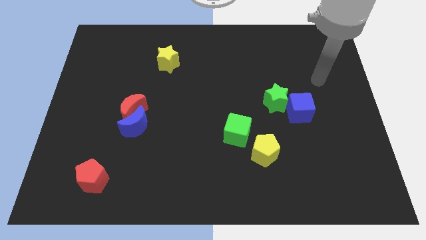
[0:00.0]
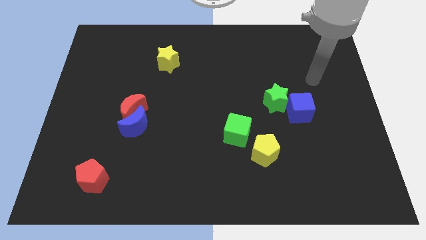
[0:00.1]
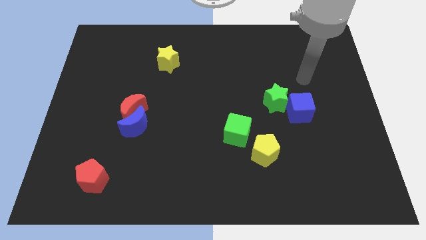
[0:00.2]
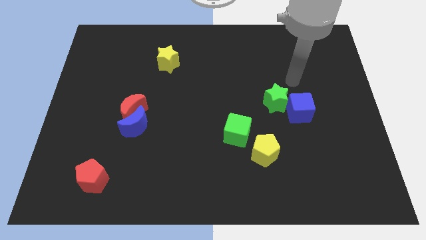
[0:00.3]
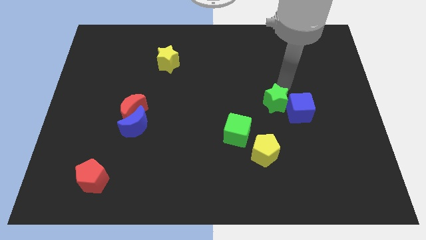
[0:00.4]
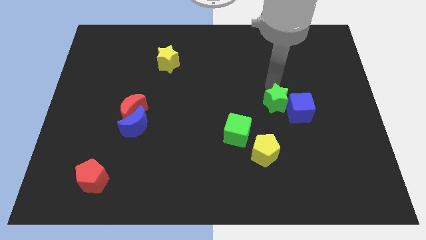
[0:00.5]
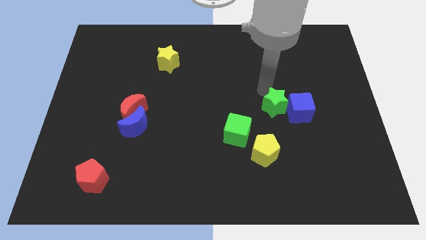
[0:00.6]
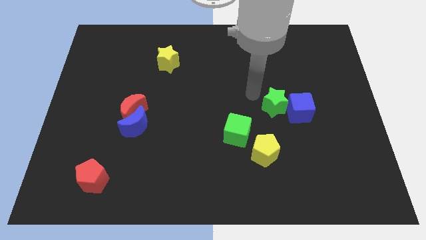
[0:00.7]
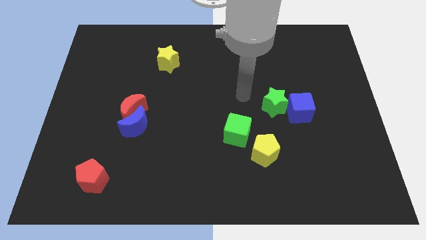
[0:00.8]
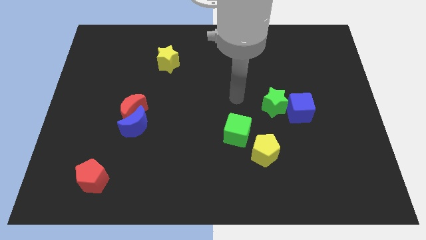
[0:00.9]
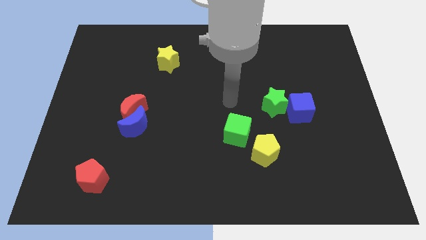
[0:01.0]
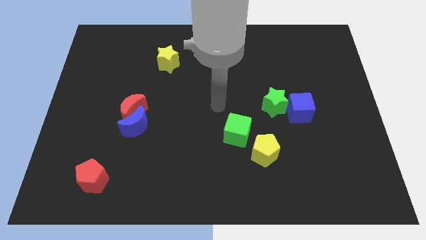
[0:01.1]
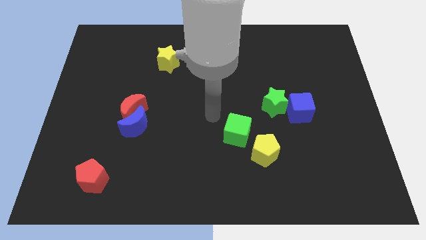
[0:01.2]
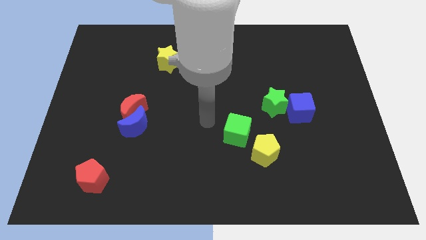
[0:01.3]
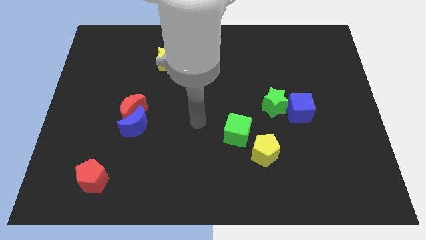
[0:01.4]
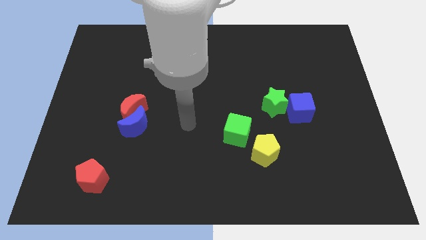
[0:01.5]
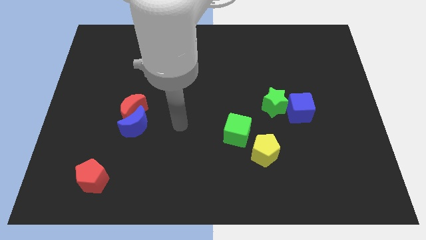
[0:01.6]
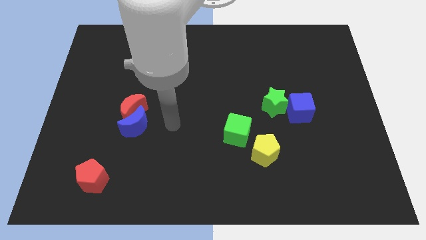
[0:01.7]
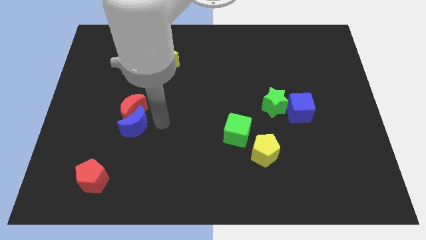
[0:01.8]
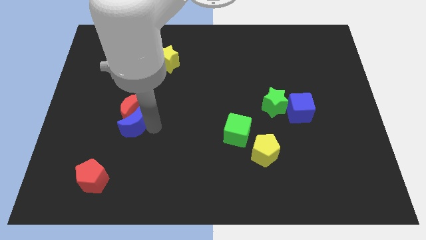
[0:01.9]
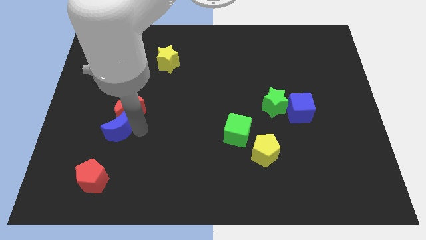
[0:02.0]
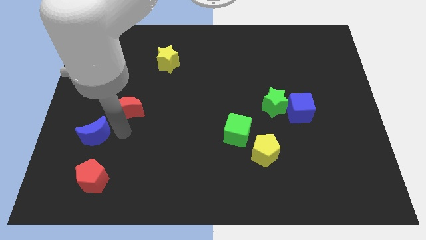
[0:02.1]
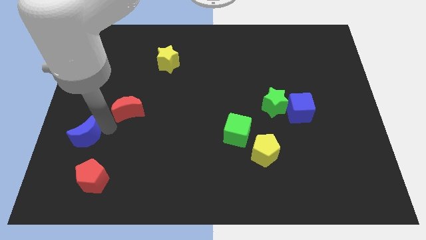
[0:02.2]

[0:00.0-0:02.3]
move the red moon away from the blue moon

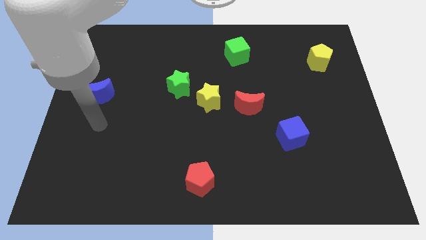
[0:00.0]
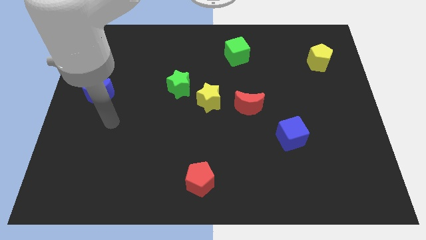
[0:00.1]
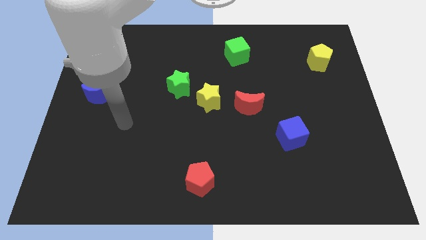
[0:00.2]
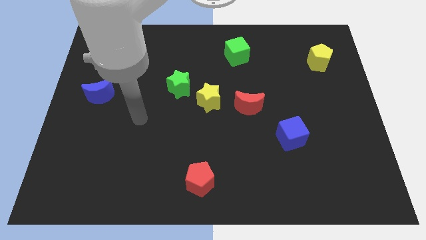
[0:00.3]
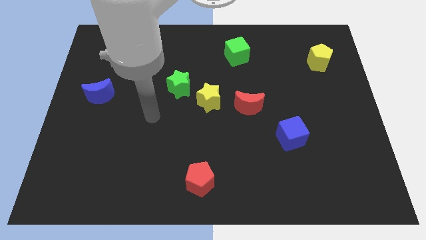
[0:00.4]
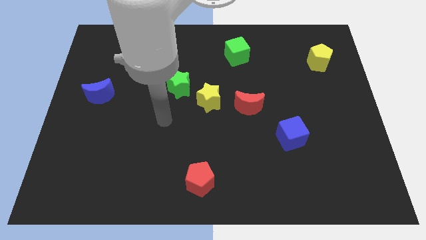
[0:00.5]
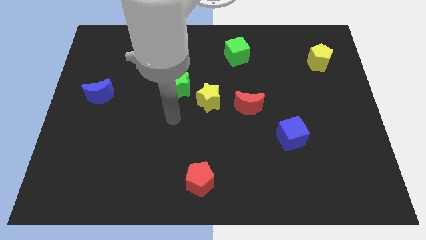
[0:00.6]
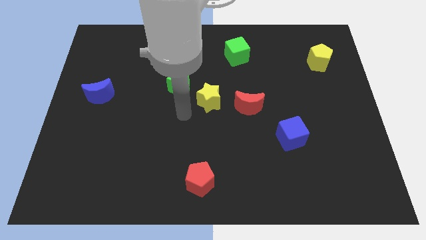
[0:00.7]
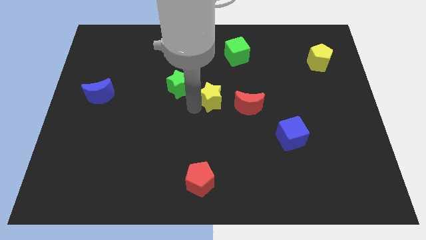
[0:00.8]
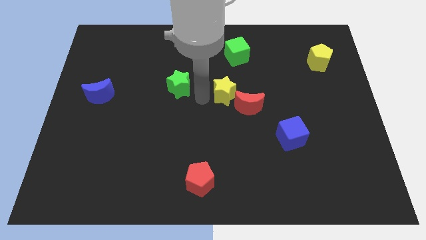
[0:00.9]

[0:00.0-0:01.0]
pull the green star apart from the yellow star

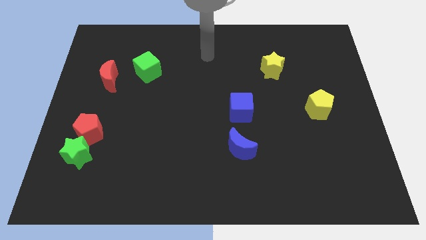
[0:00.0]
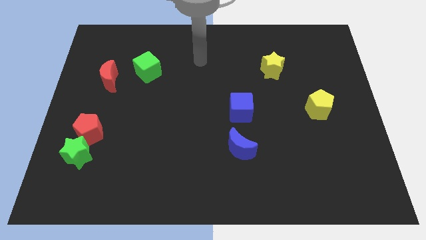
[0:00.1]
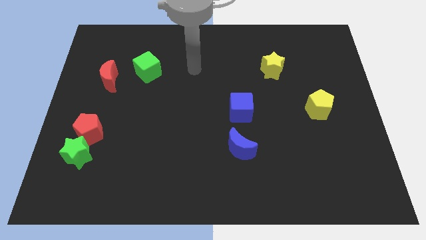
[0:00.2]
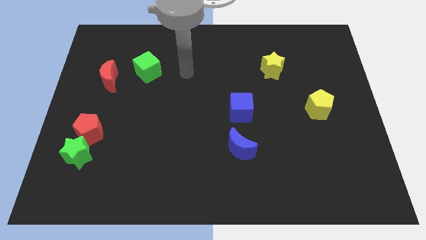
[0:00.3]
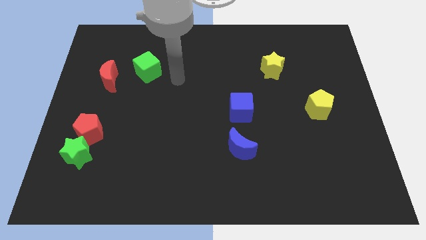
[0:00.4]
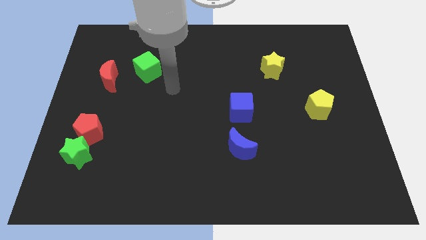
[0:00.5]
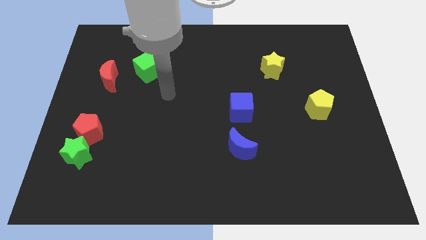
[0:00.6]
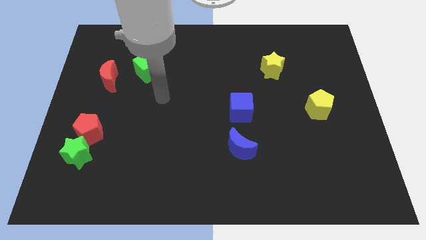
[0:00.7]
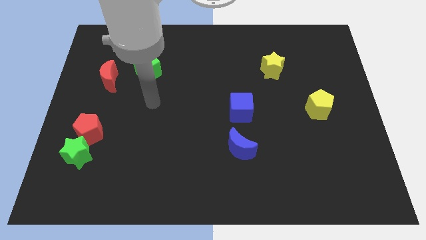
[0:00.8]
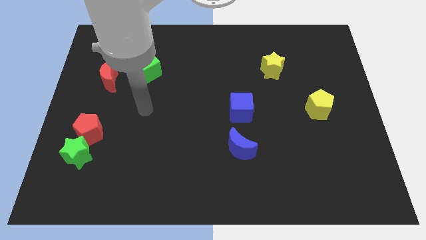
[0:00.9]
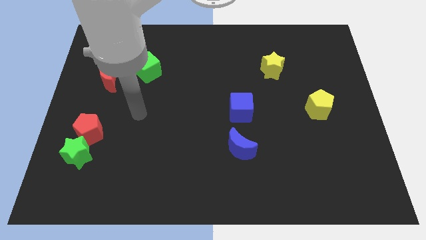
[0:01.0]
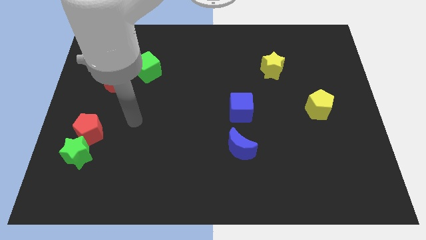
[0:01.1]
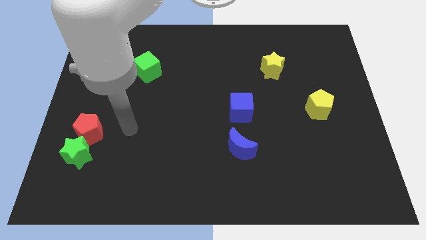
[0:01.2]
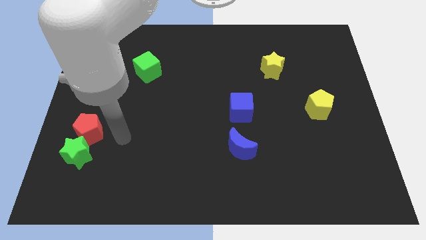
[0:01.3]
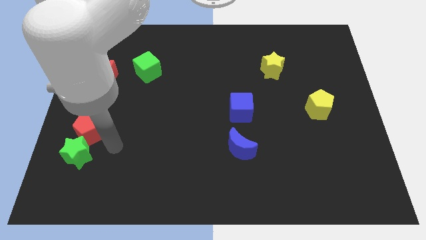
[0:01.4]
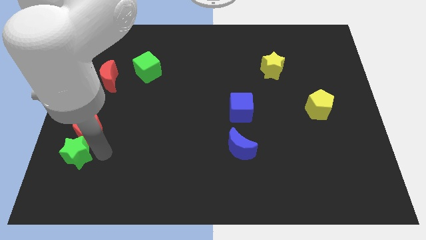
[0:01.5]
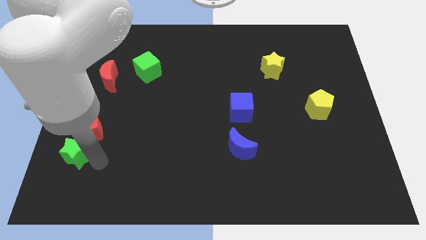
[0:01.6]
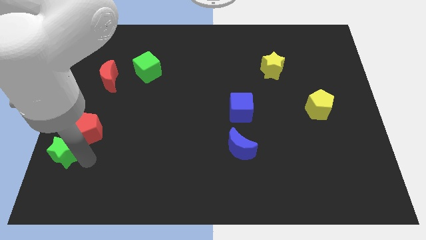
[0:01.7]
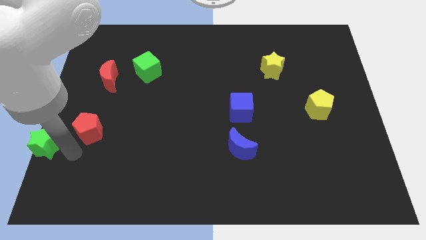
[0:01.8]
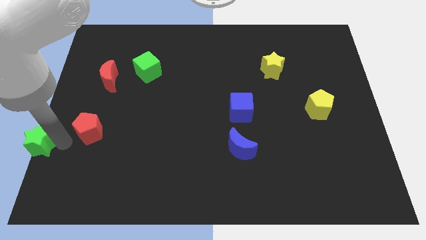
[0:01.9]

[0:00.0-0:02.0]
pull the red pentagon apart from the green star

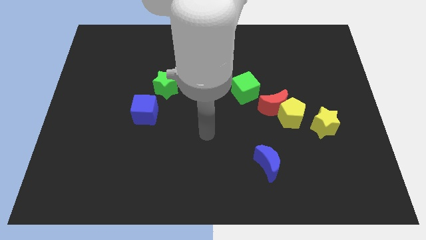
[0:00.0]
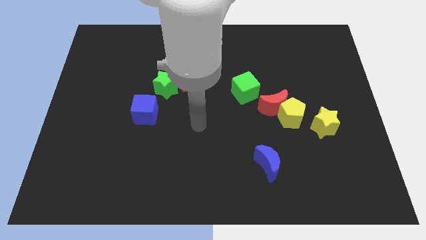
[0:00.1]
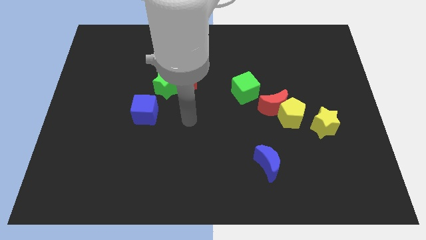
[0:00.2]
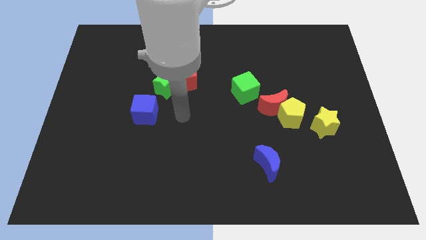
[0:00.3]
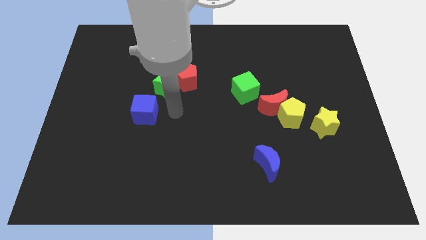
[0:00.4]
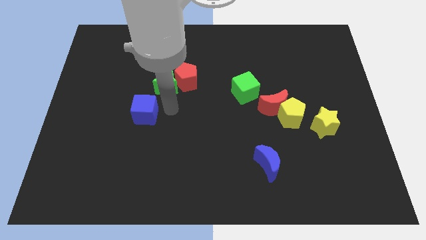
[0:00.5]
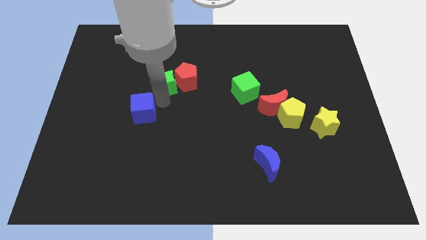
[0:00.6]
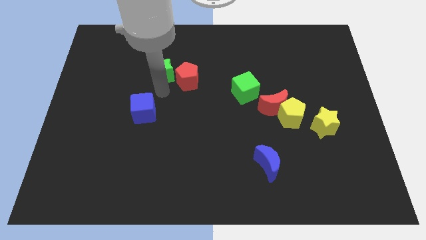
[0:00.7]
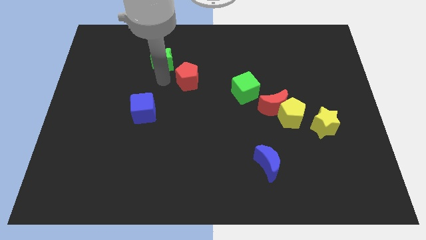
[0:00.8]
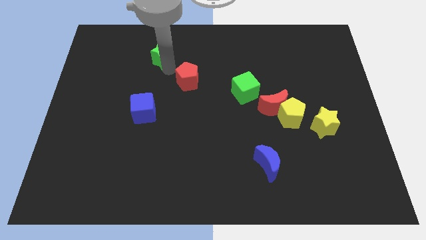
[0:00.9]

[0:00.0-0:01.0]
separate the red pentagon from the green star

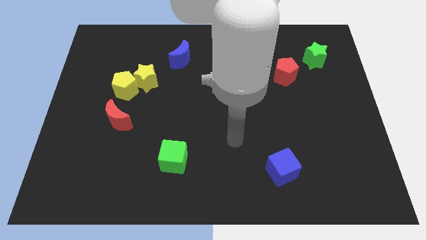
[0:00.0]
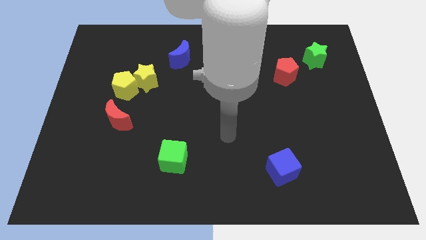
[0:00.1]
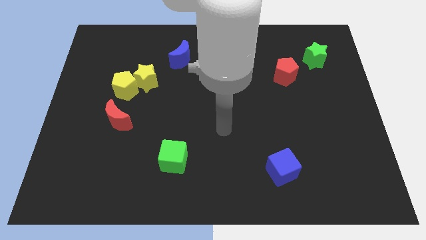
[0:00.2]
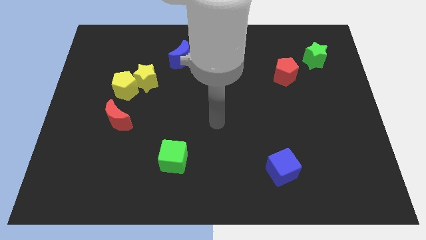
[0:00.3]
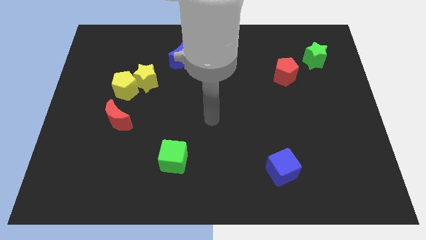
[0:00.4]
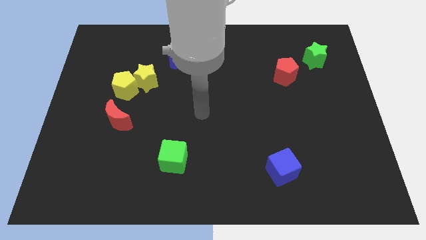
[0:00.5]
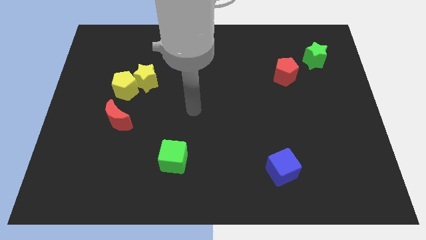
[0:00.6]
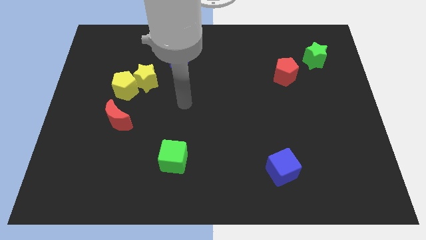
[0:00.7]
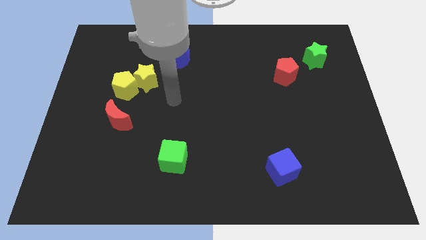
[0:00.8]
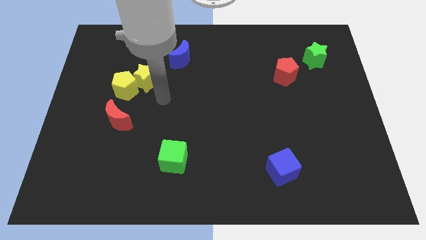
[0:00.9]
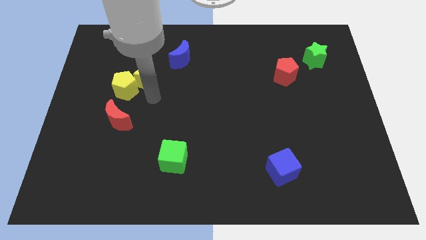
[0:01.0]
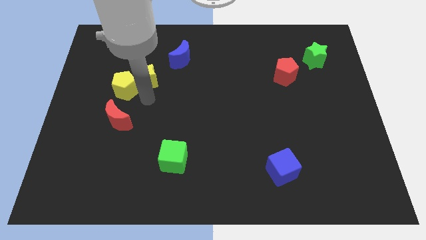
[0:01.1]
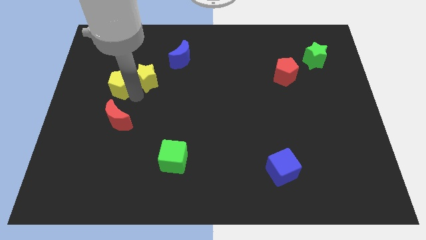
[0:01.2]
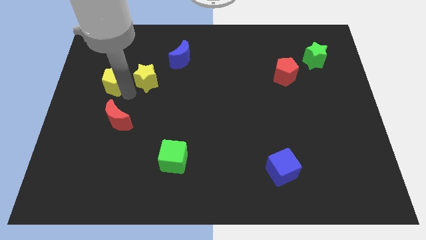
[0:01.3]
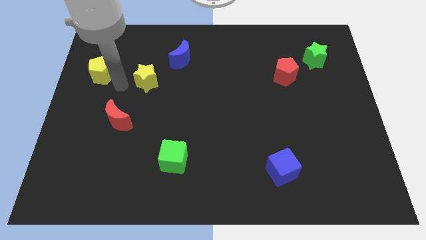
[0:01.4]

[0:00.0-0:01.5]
separate the yellow star from the yellow pentagon

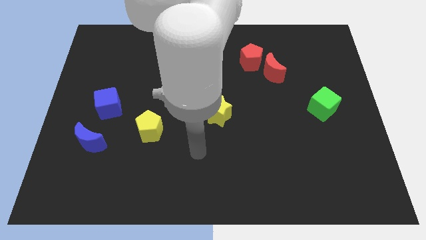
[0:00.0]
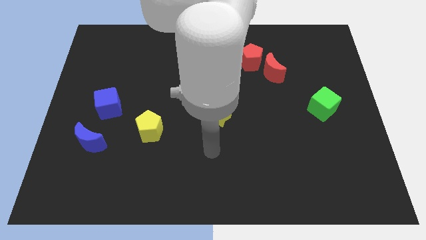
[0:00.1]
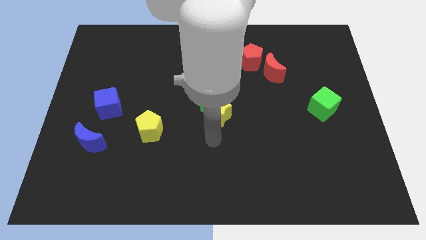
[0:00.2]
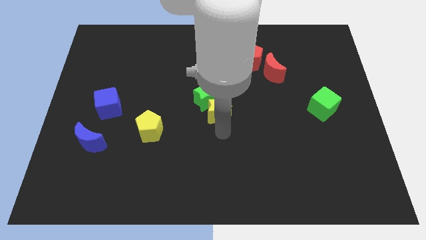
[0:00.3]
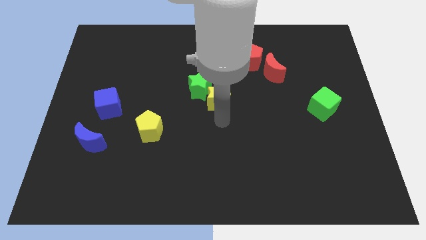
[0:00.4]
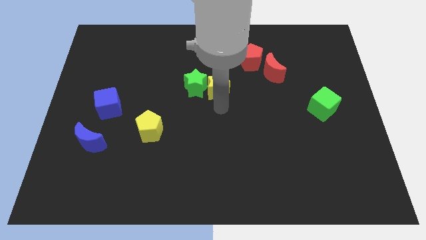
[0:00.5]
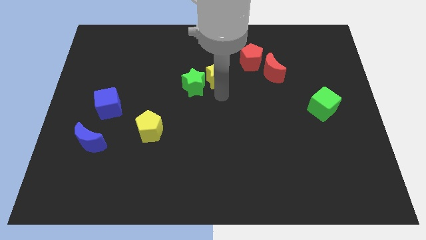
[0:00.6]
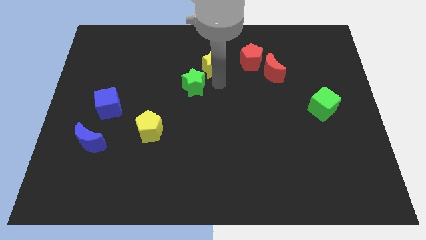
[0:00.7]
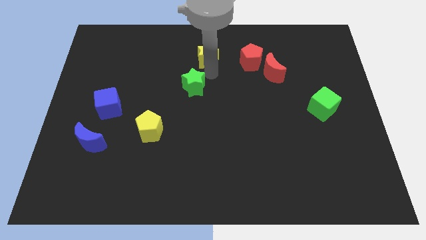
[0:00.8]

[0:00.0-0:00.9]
separate the green star from the yellow star

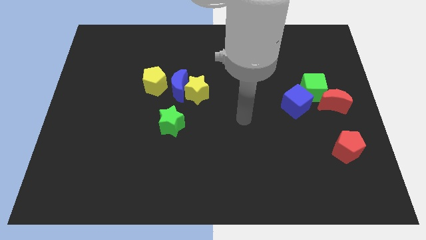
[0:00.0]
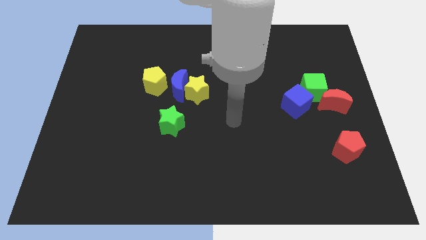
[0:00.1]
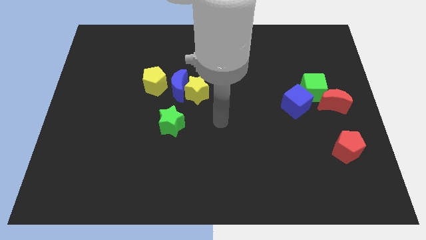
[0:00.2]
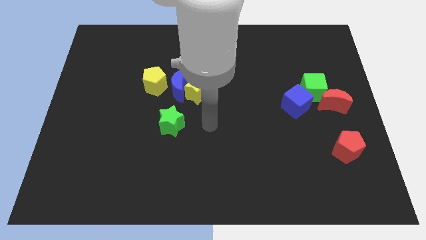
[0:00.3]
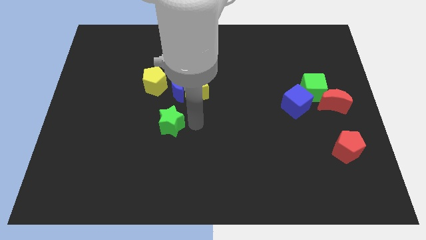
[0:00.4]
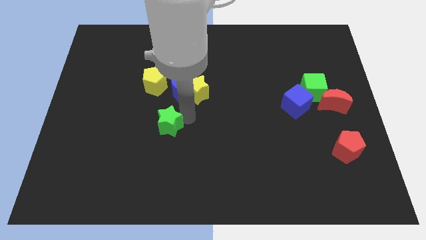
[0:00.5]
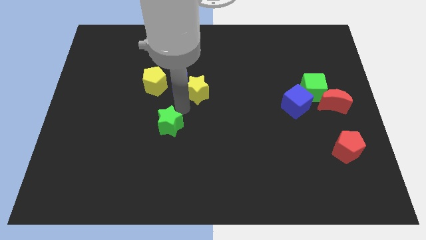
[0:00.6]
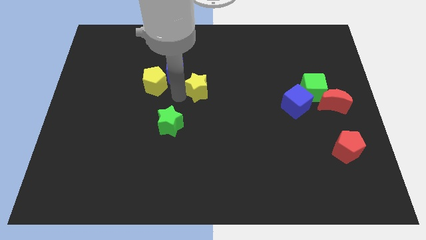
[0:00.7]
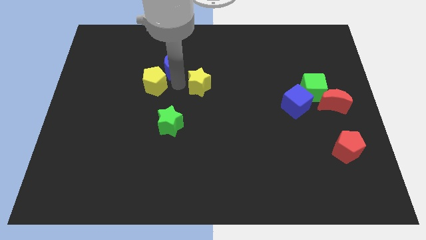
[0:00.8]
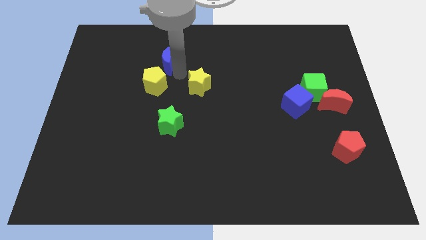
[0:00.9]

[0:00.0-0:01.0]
move the yellow star away from the blue moon
